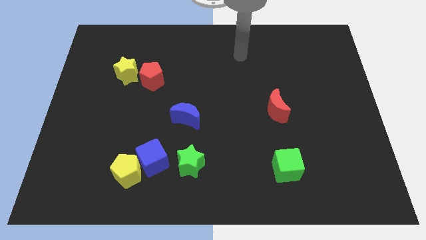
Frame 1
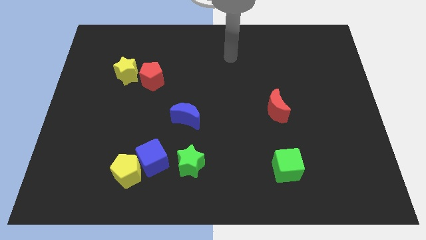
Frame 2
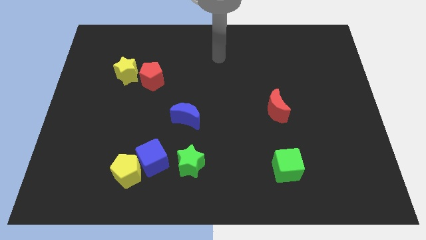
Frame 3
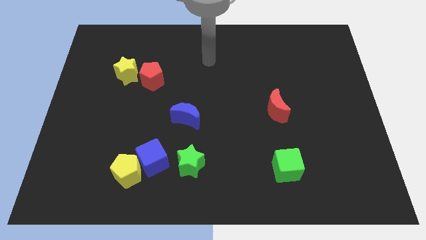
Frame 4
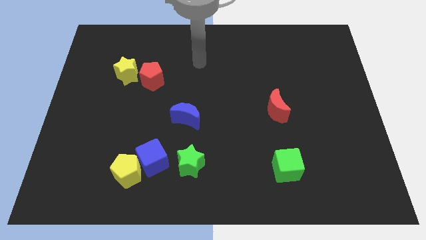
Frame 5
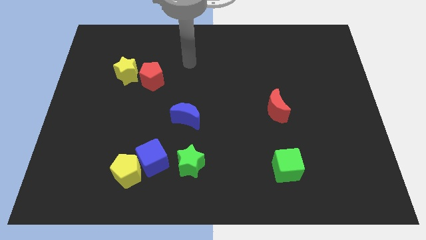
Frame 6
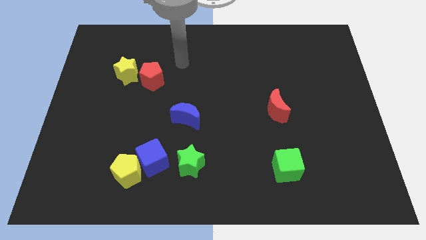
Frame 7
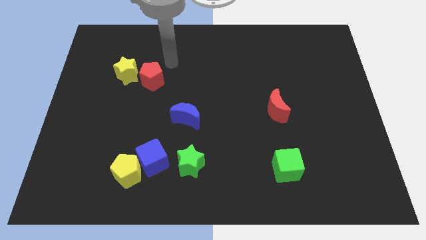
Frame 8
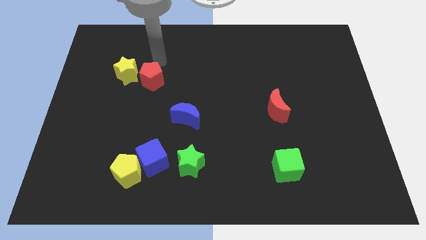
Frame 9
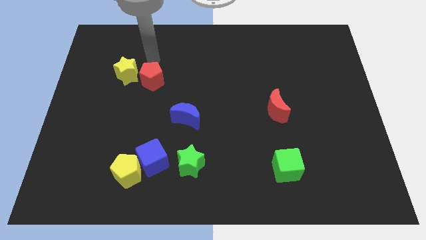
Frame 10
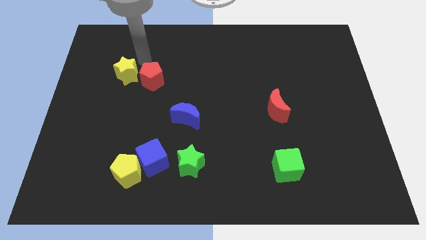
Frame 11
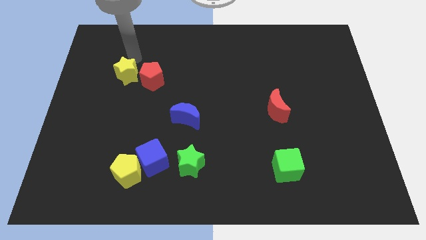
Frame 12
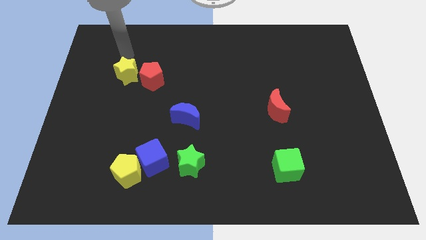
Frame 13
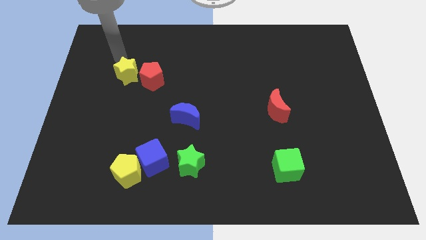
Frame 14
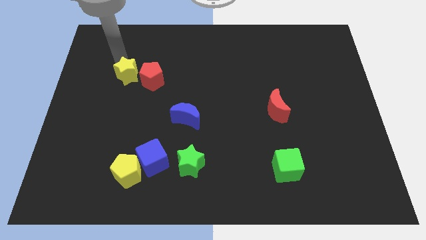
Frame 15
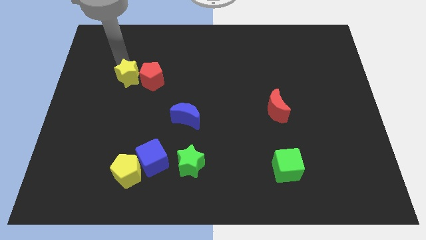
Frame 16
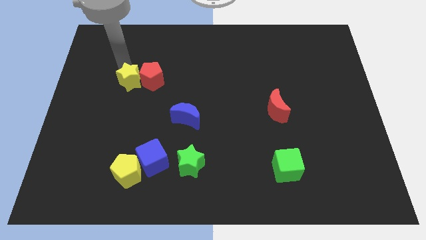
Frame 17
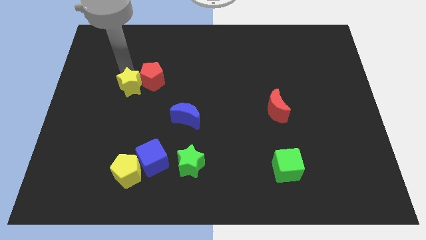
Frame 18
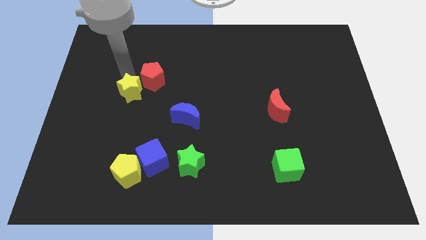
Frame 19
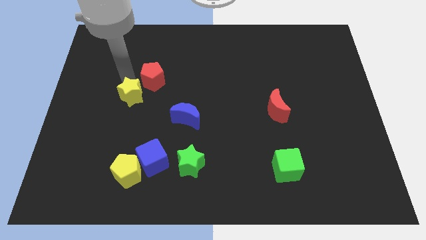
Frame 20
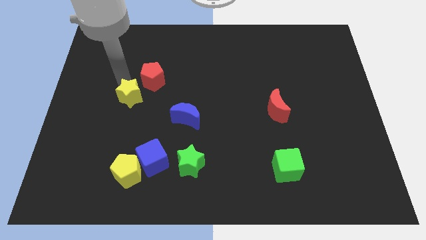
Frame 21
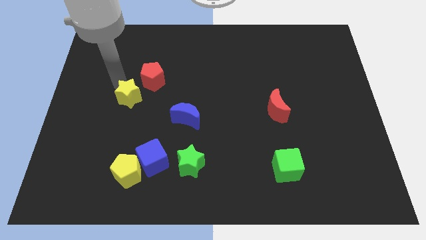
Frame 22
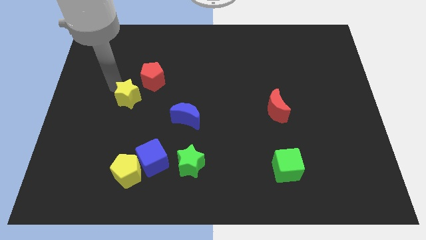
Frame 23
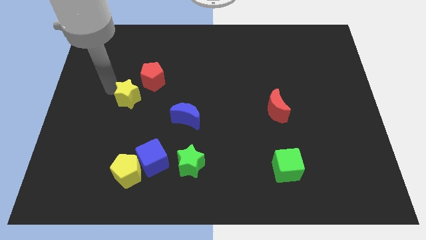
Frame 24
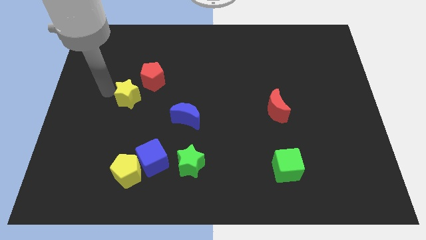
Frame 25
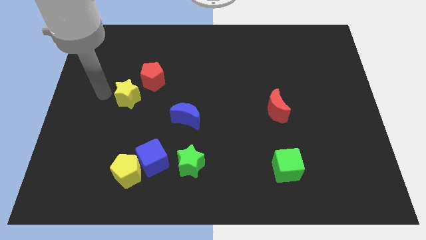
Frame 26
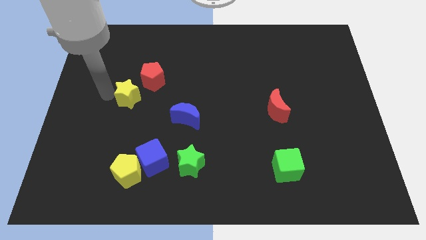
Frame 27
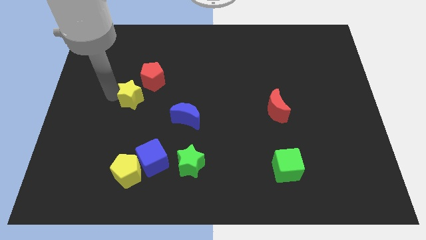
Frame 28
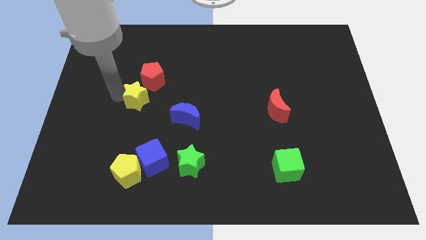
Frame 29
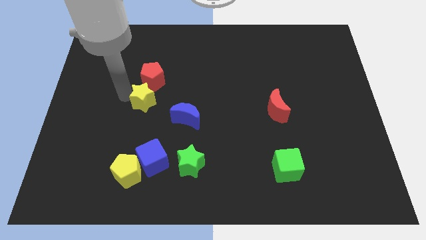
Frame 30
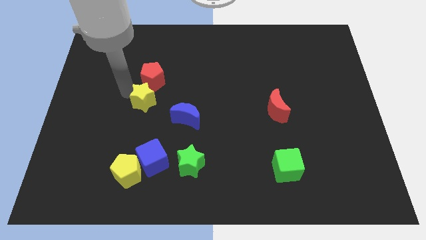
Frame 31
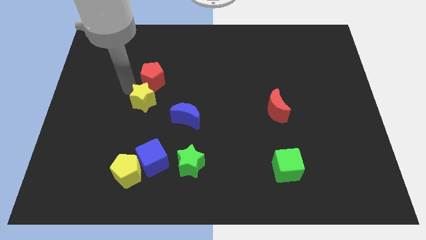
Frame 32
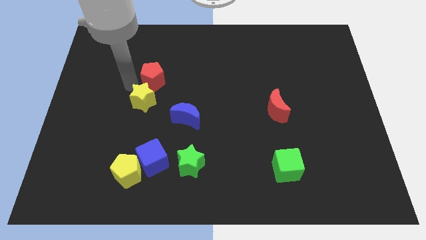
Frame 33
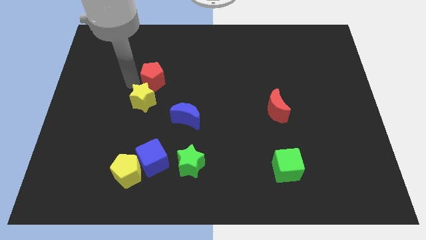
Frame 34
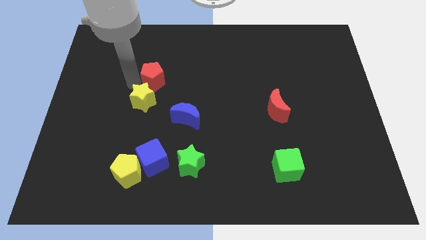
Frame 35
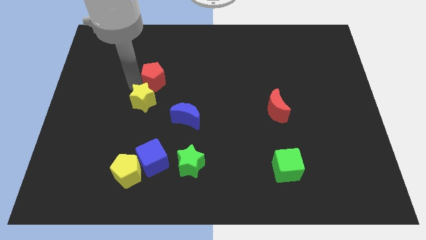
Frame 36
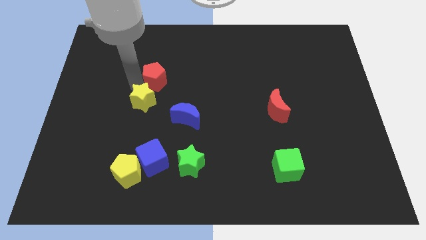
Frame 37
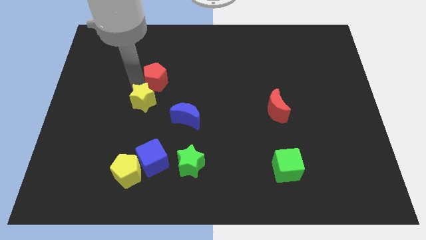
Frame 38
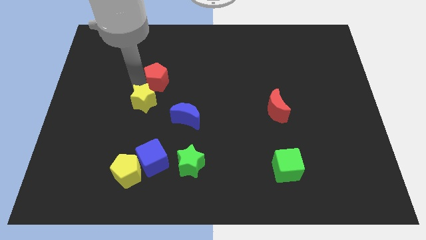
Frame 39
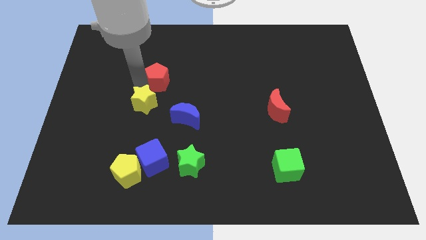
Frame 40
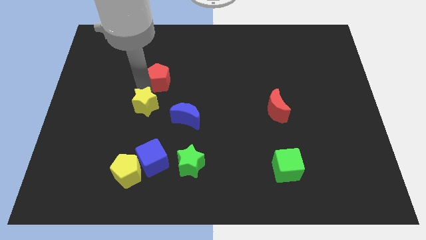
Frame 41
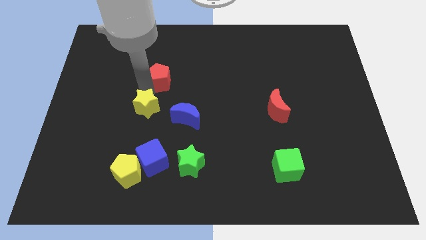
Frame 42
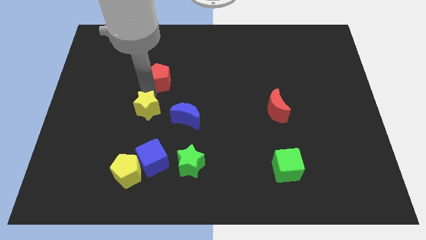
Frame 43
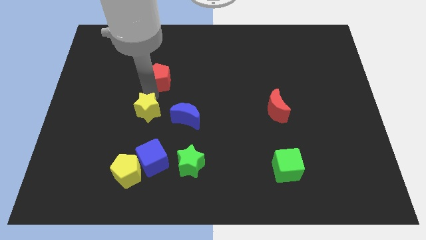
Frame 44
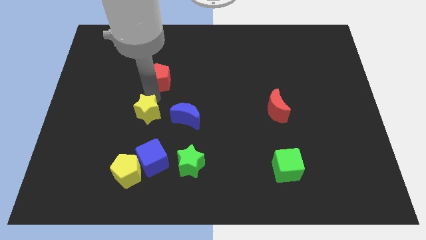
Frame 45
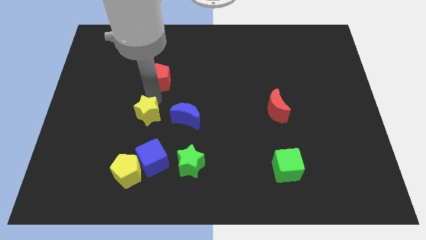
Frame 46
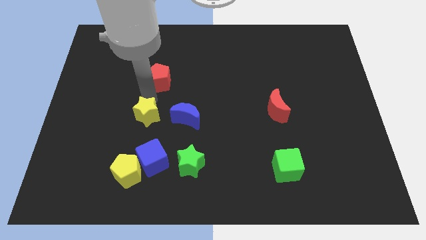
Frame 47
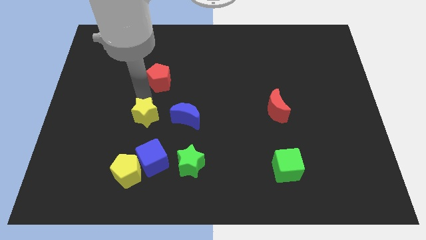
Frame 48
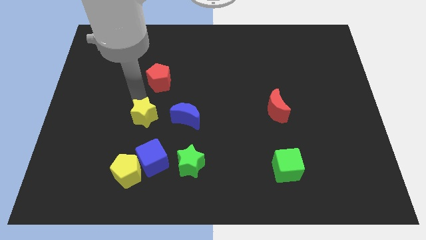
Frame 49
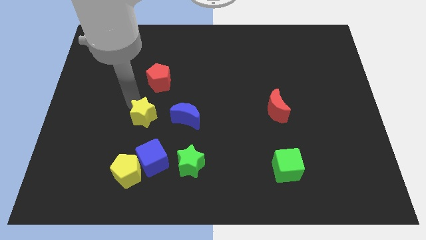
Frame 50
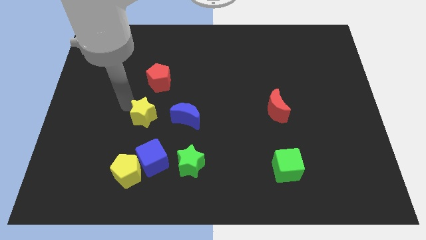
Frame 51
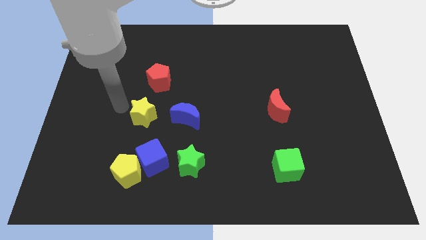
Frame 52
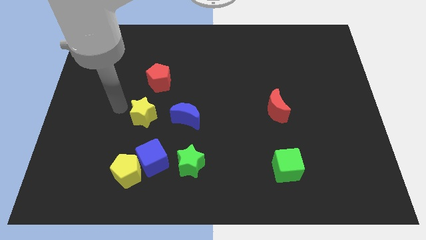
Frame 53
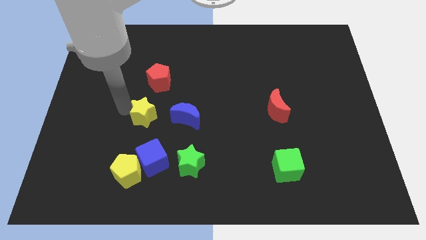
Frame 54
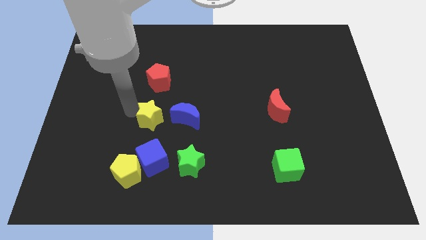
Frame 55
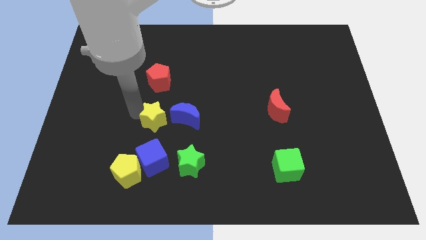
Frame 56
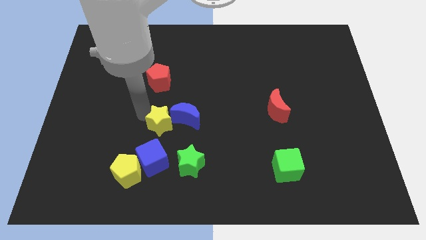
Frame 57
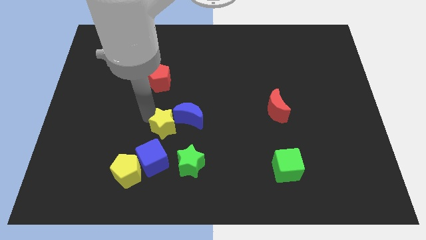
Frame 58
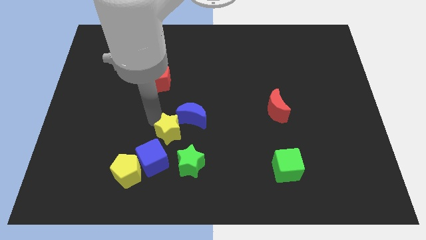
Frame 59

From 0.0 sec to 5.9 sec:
slide the yellow star diagonally downwards and right

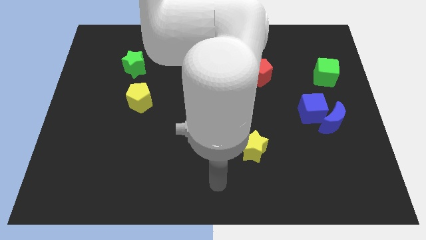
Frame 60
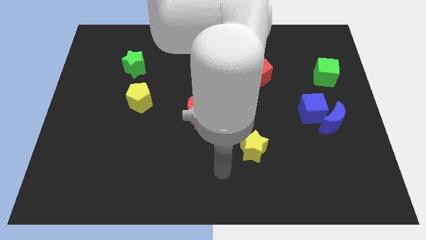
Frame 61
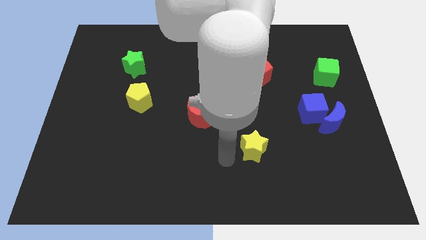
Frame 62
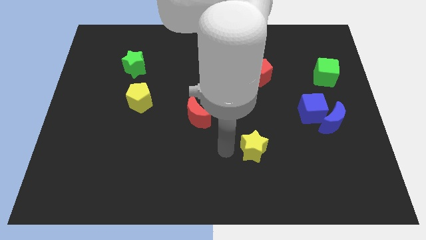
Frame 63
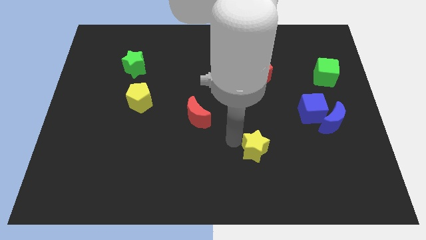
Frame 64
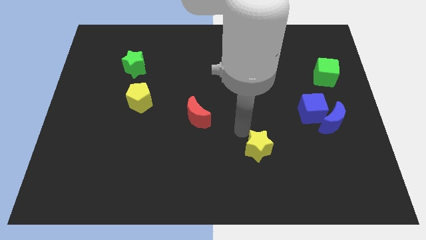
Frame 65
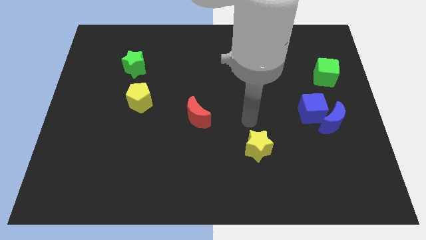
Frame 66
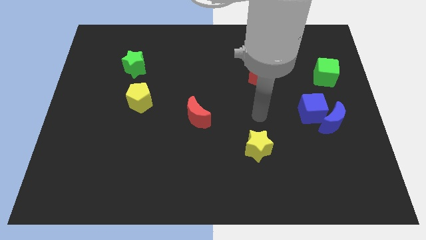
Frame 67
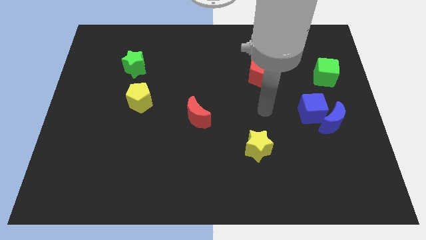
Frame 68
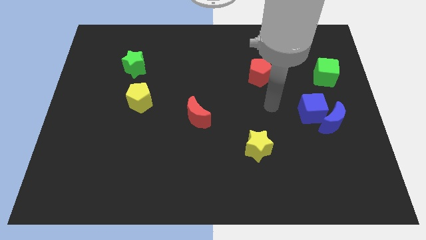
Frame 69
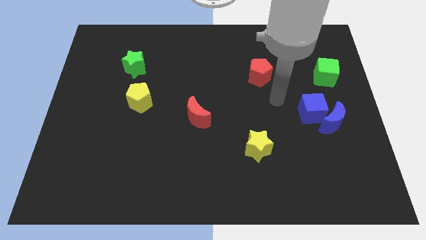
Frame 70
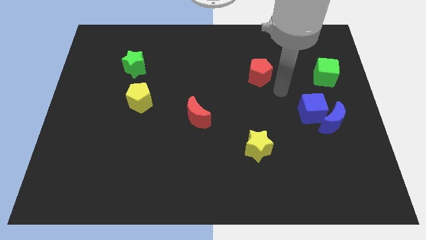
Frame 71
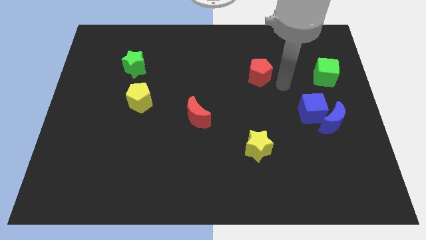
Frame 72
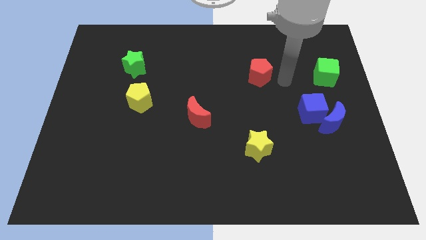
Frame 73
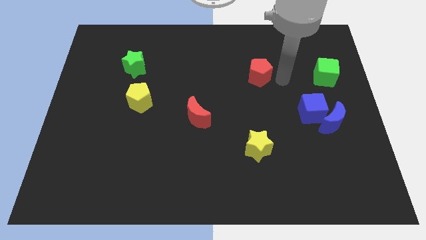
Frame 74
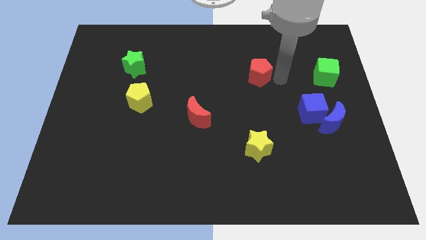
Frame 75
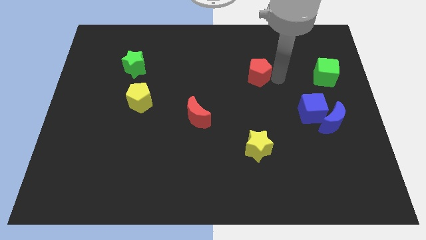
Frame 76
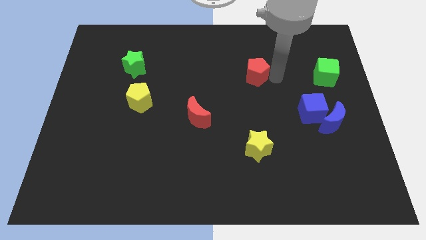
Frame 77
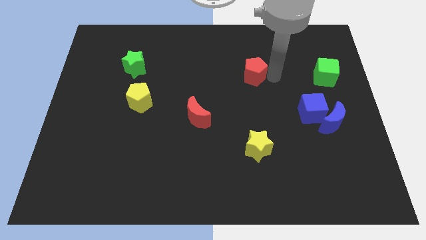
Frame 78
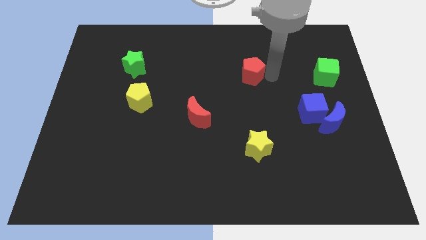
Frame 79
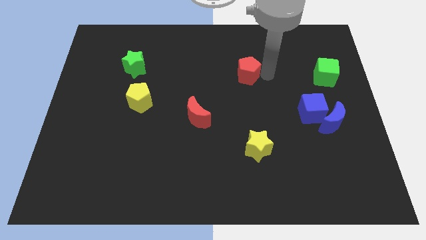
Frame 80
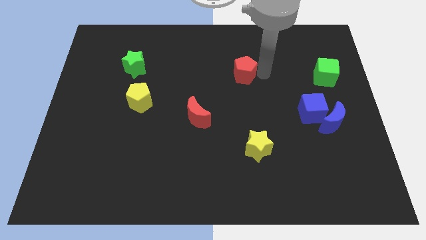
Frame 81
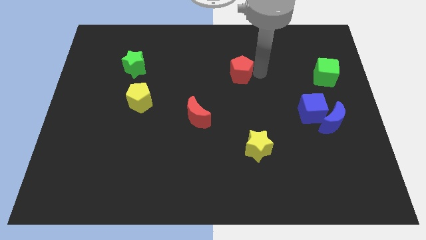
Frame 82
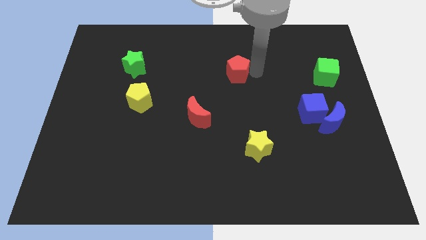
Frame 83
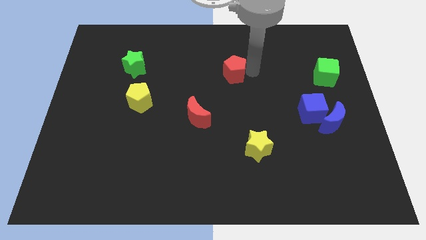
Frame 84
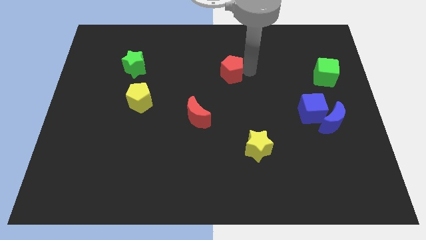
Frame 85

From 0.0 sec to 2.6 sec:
slightly move the red pentagon left
